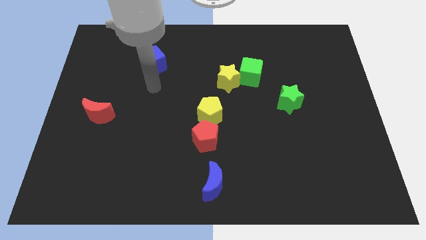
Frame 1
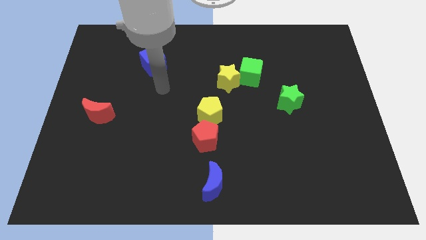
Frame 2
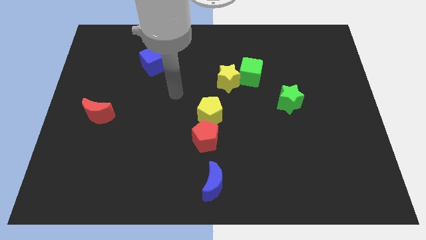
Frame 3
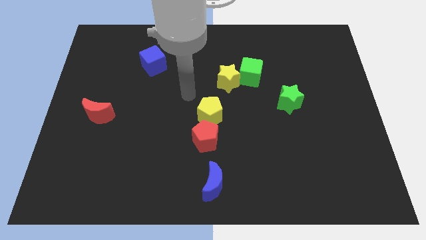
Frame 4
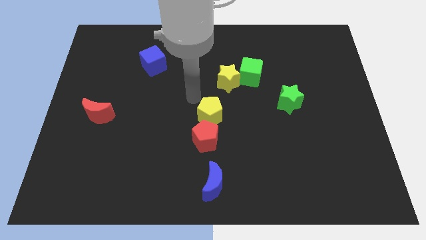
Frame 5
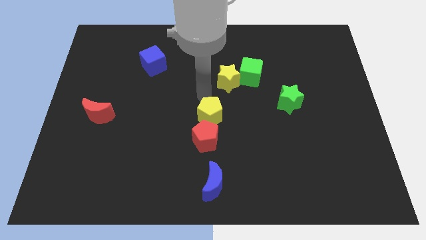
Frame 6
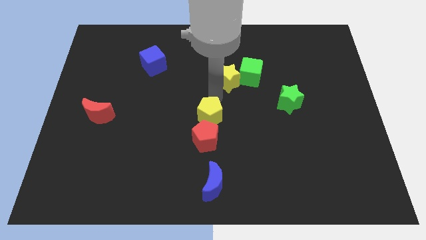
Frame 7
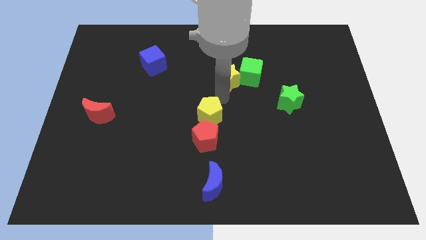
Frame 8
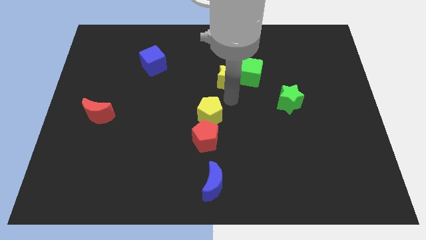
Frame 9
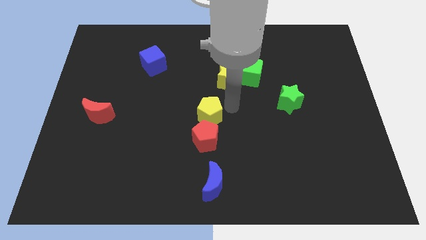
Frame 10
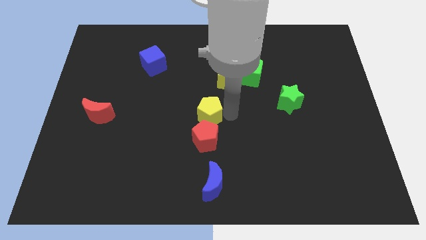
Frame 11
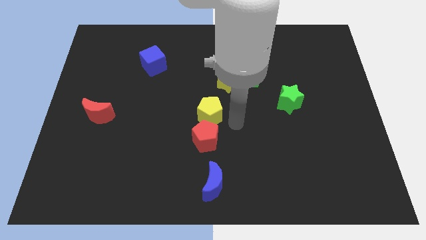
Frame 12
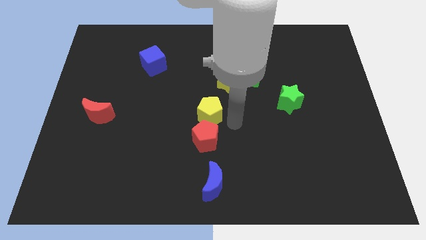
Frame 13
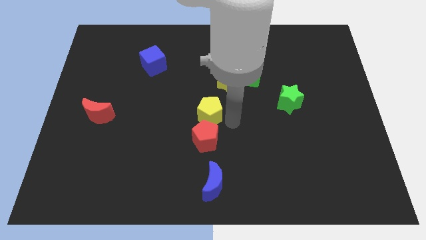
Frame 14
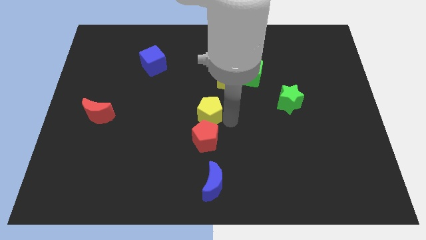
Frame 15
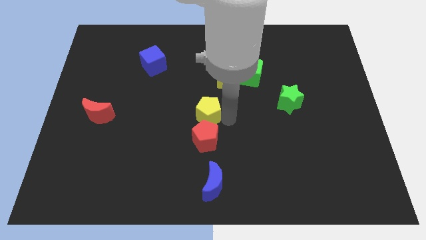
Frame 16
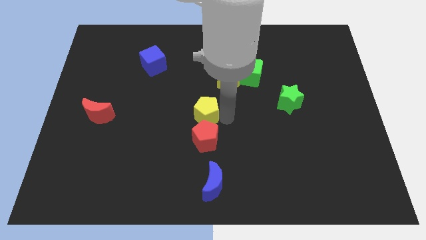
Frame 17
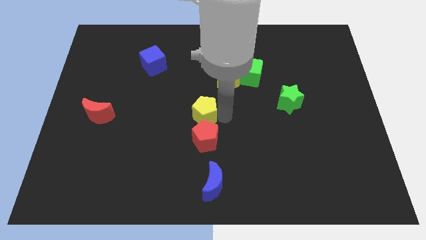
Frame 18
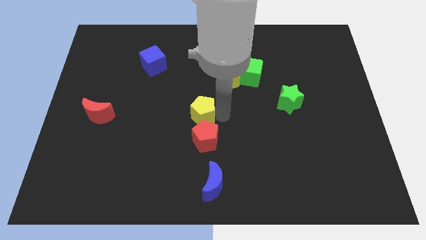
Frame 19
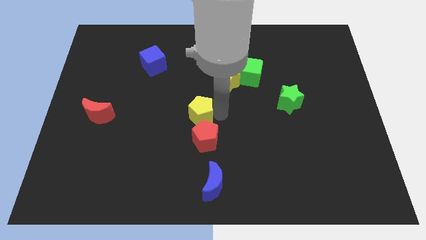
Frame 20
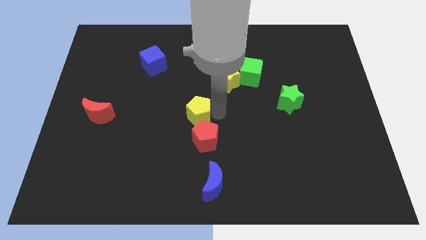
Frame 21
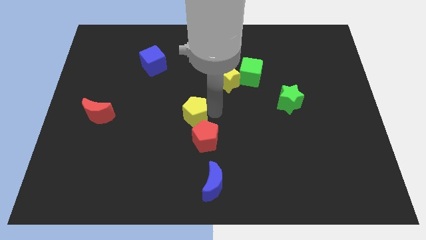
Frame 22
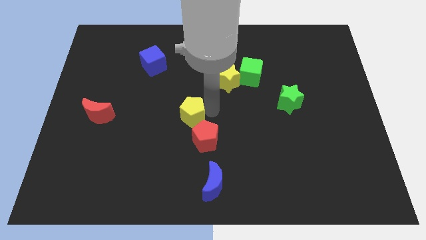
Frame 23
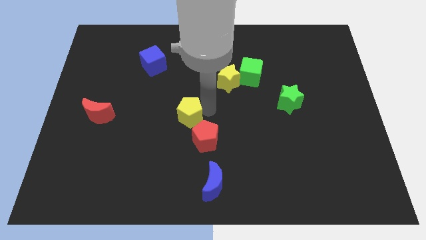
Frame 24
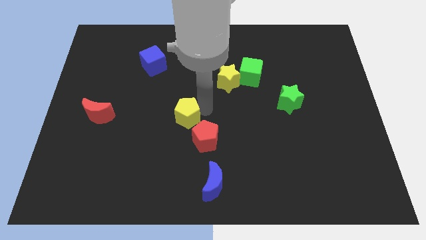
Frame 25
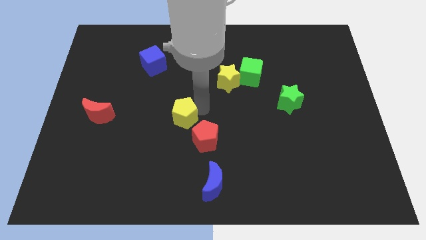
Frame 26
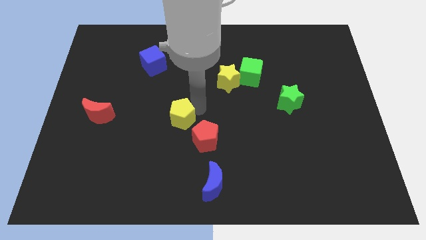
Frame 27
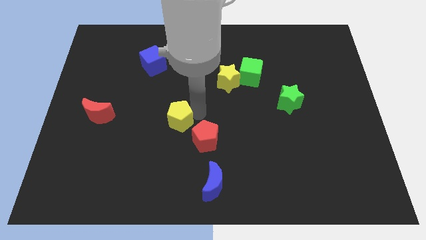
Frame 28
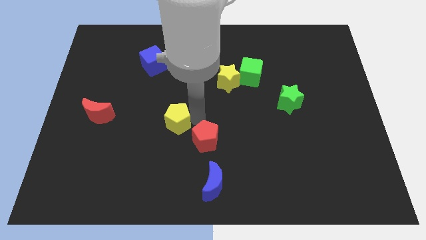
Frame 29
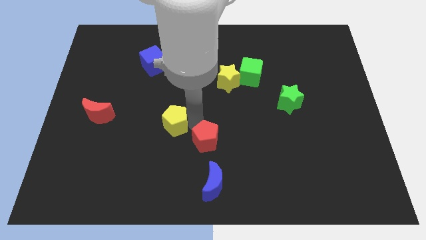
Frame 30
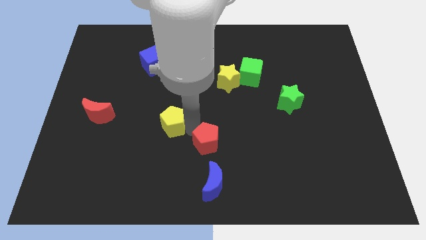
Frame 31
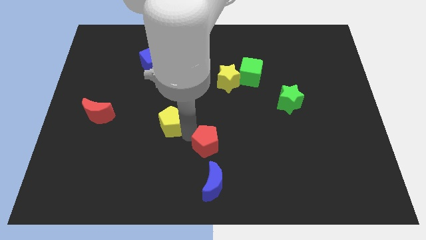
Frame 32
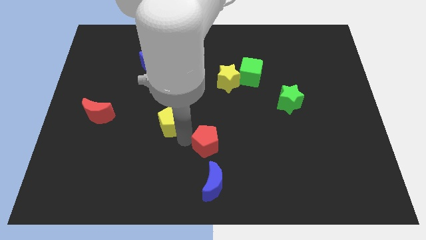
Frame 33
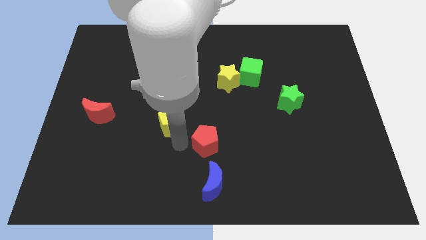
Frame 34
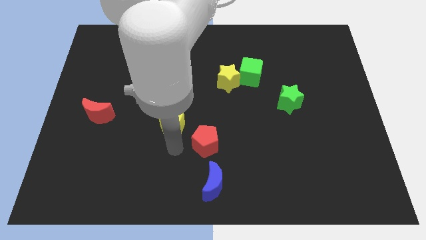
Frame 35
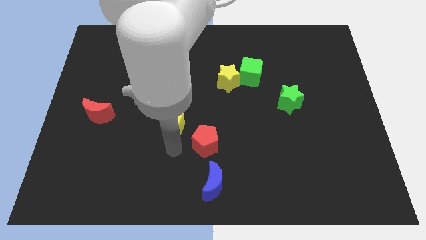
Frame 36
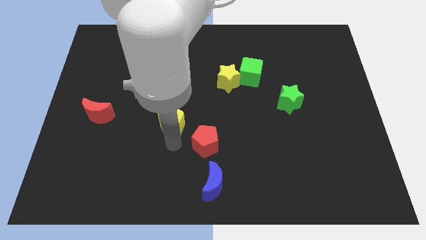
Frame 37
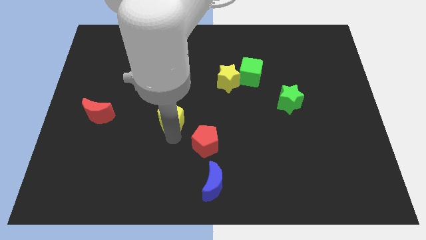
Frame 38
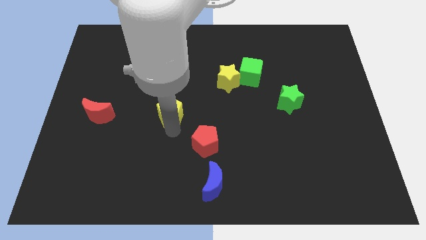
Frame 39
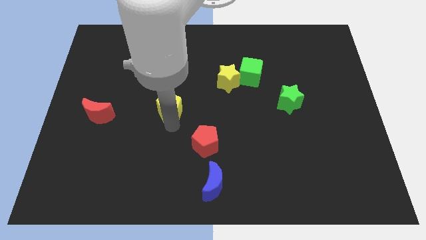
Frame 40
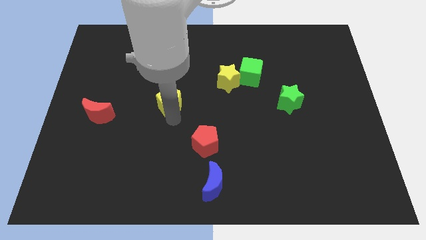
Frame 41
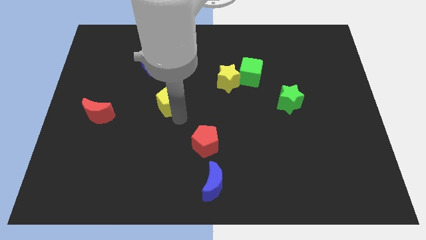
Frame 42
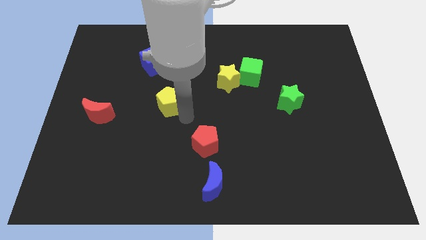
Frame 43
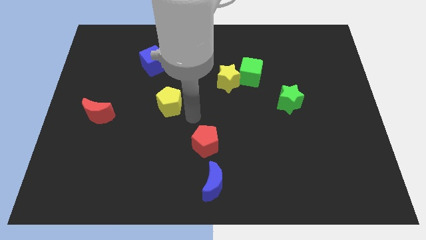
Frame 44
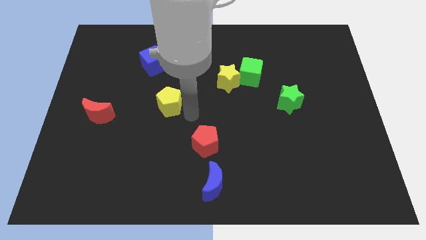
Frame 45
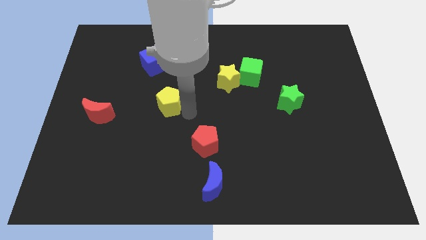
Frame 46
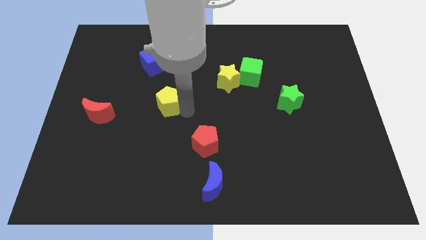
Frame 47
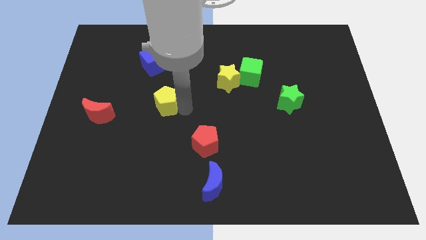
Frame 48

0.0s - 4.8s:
put the yellow pentagon to the bottom of the blue cube

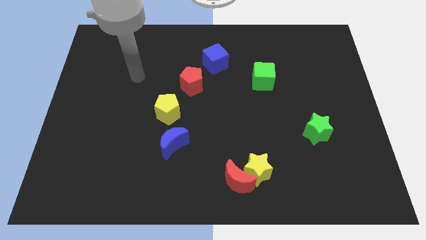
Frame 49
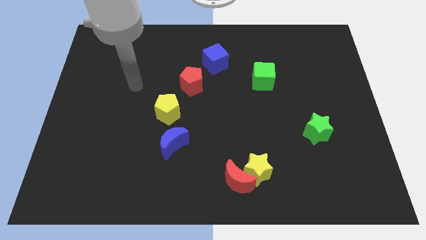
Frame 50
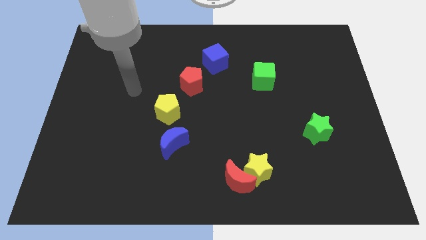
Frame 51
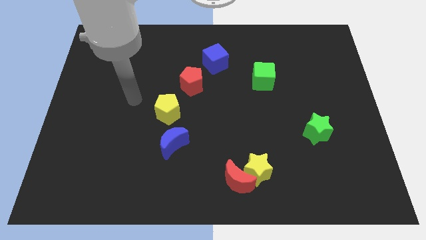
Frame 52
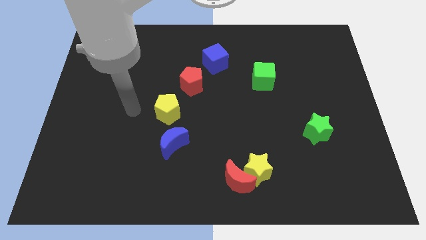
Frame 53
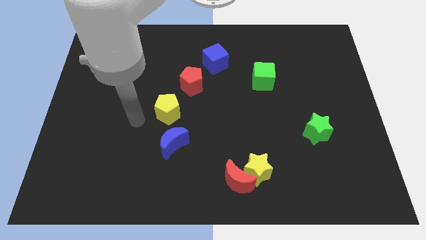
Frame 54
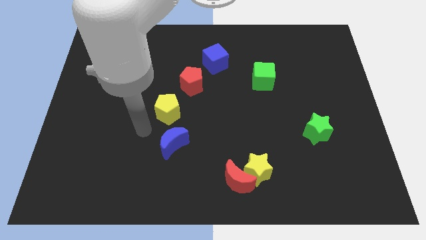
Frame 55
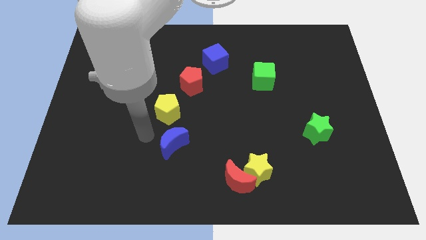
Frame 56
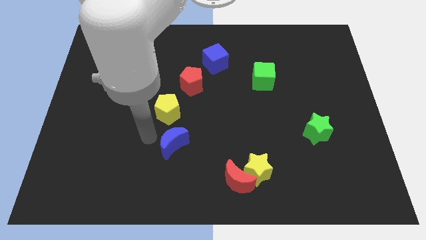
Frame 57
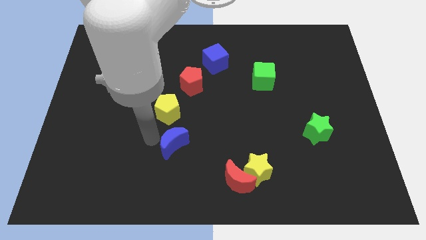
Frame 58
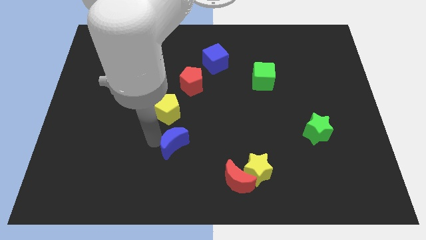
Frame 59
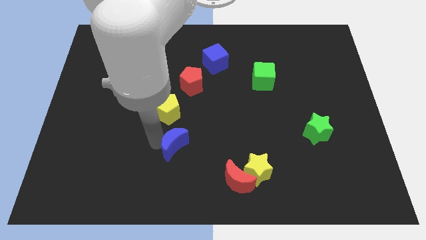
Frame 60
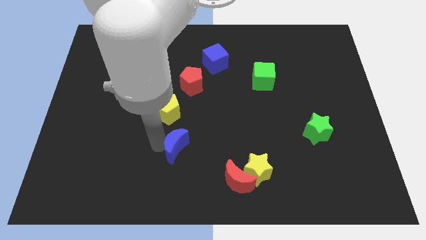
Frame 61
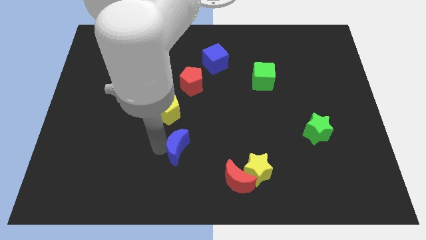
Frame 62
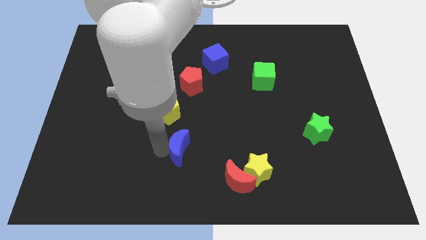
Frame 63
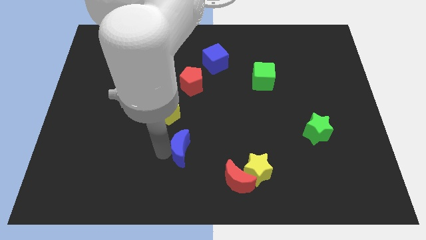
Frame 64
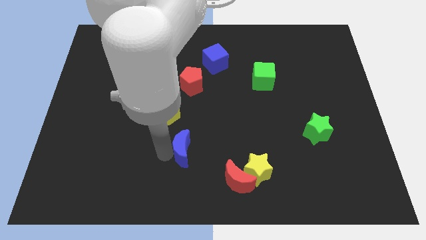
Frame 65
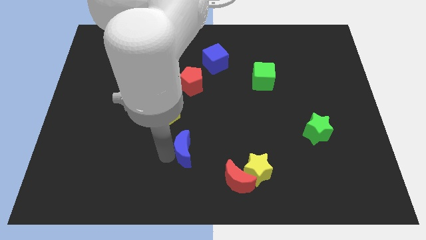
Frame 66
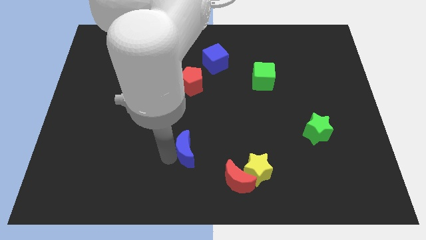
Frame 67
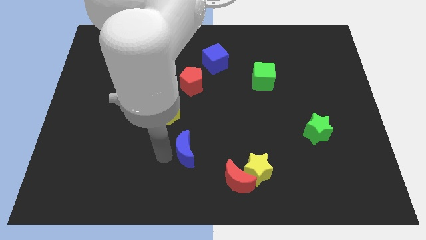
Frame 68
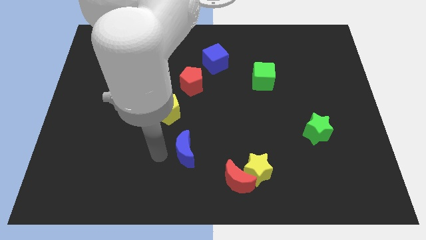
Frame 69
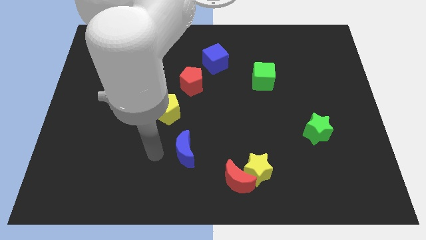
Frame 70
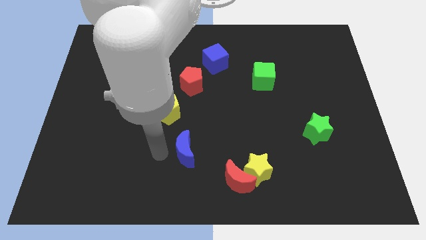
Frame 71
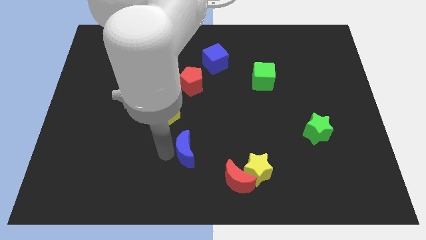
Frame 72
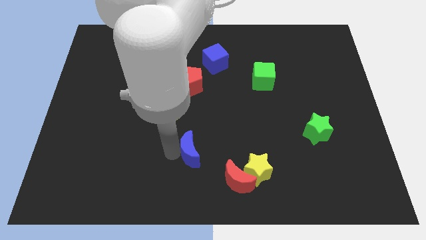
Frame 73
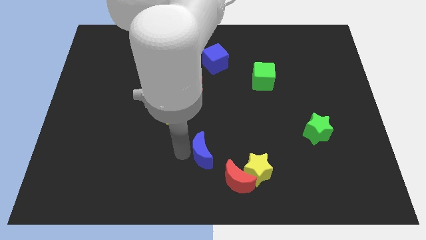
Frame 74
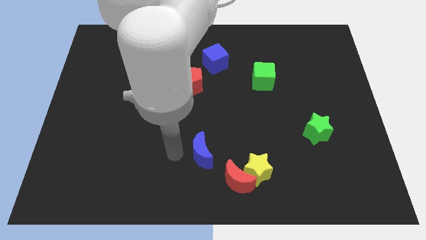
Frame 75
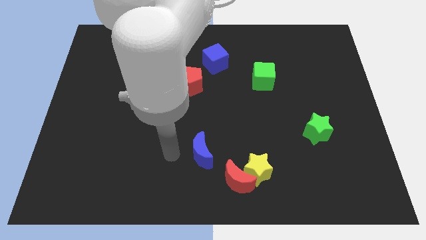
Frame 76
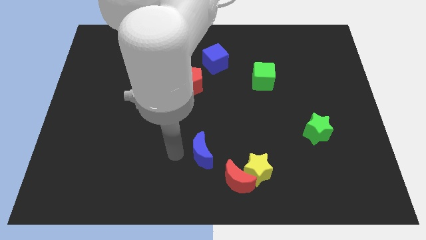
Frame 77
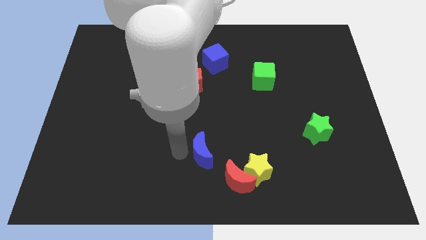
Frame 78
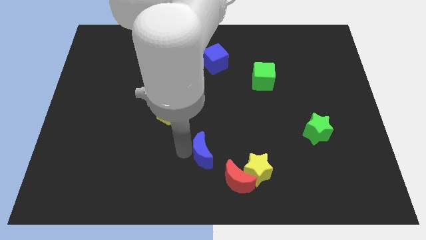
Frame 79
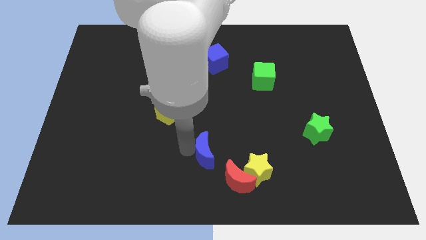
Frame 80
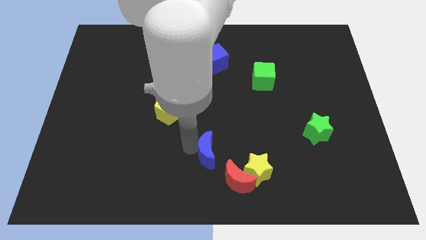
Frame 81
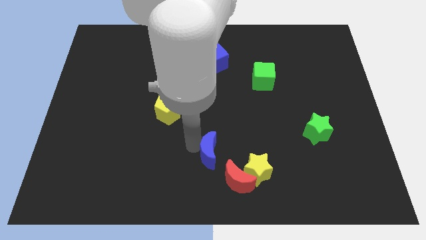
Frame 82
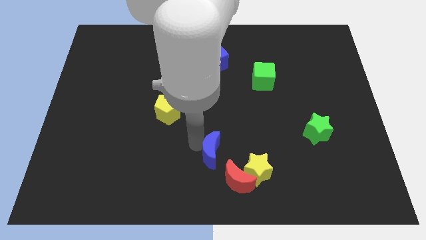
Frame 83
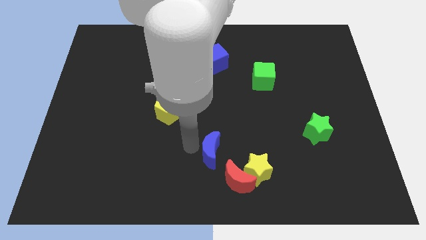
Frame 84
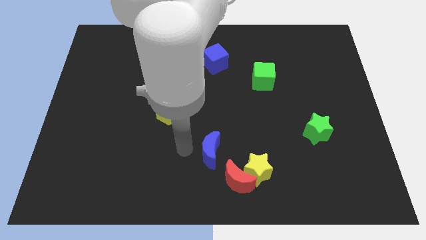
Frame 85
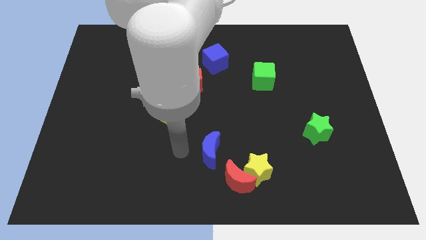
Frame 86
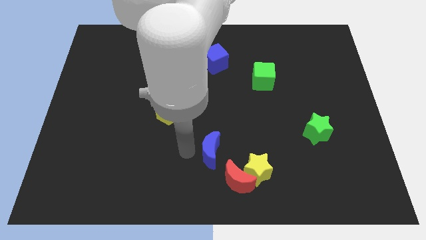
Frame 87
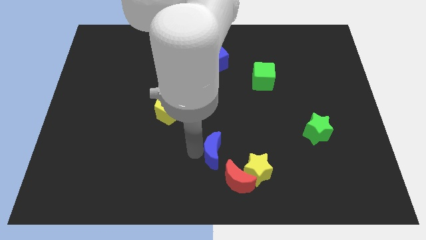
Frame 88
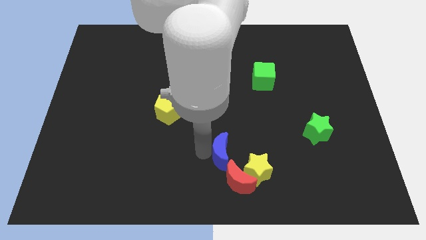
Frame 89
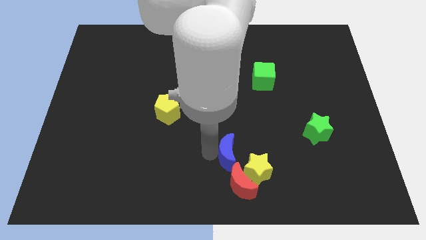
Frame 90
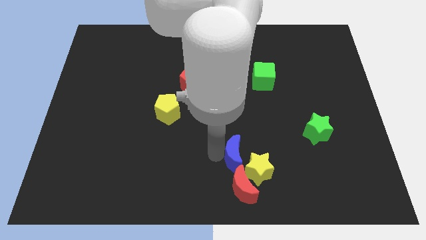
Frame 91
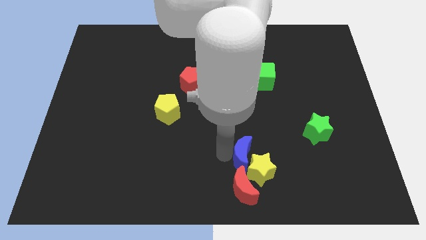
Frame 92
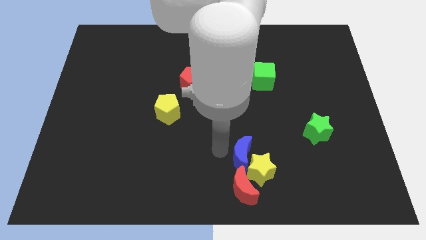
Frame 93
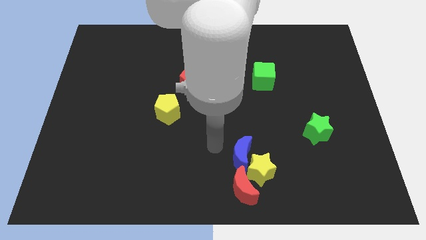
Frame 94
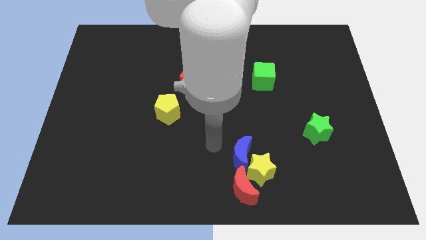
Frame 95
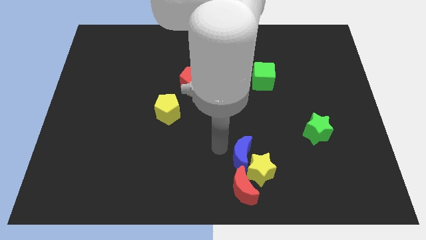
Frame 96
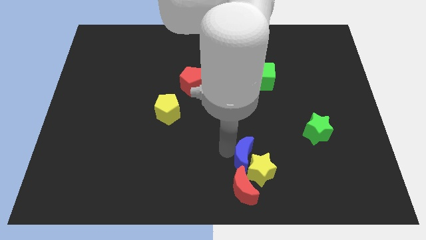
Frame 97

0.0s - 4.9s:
put the blue moon diagonally up and to the right of the red moon
